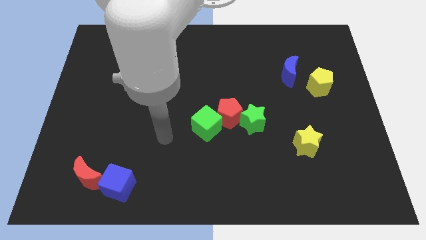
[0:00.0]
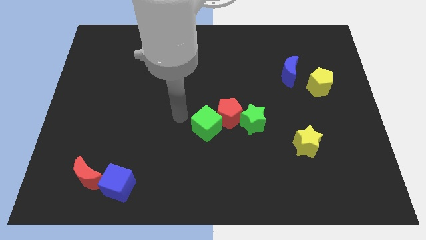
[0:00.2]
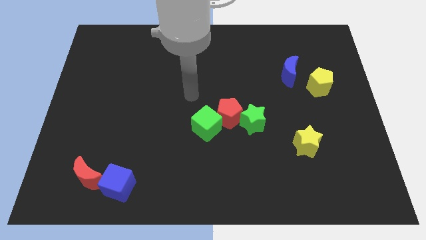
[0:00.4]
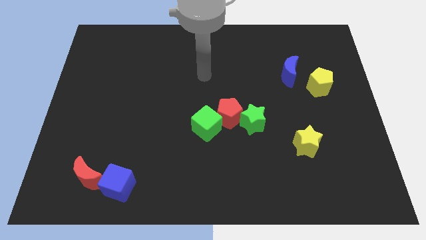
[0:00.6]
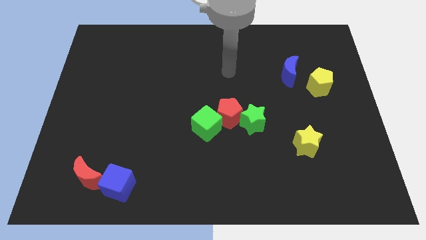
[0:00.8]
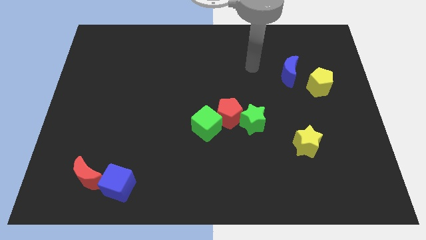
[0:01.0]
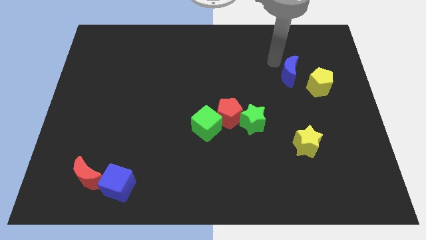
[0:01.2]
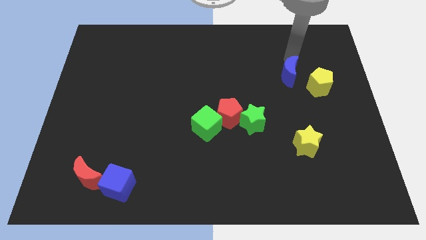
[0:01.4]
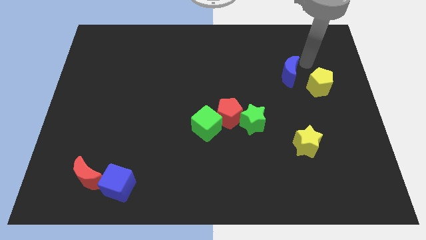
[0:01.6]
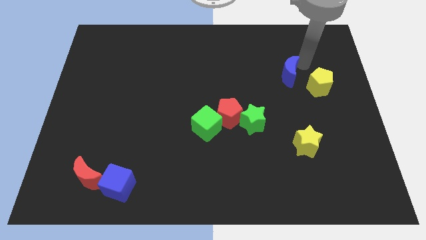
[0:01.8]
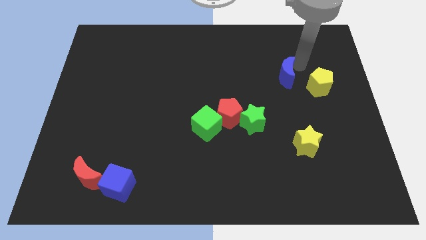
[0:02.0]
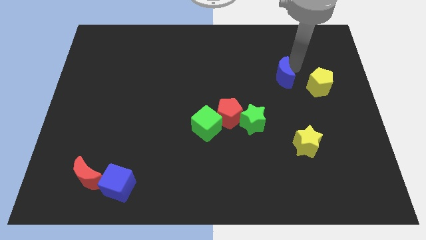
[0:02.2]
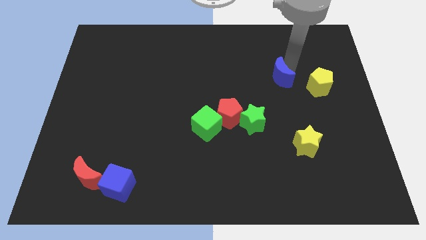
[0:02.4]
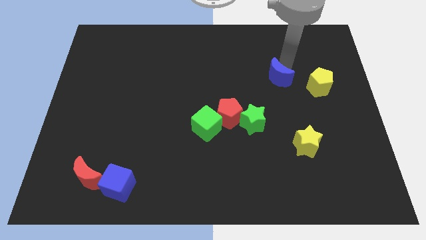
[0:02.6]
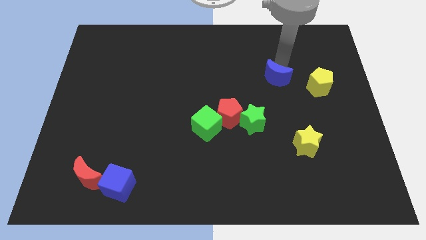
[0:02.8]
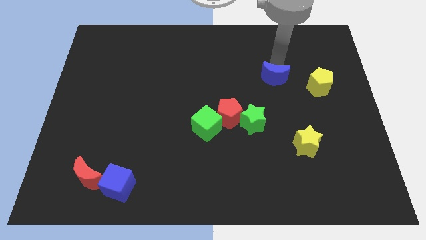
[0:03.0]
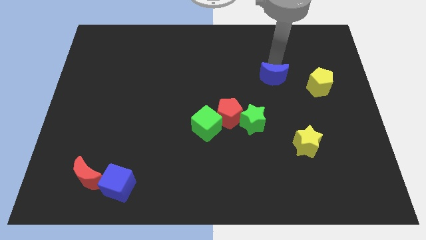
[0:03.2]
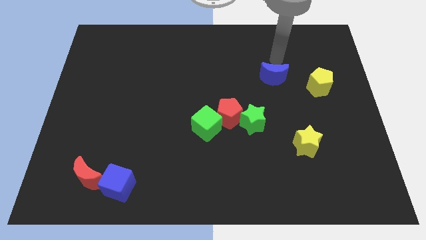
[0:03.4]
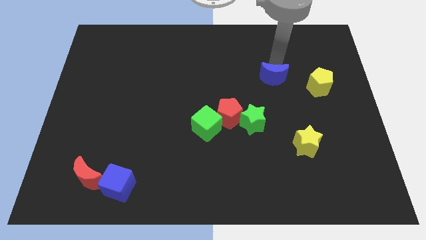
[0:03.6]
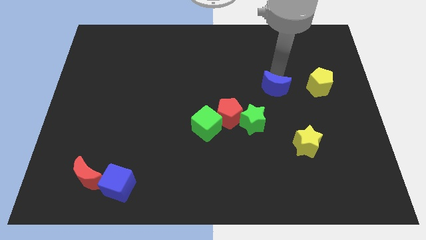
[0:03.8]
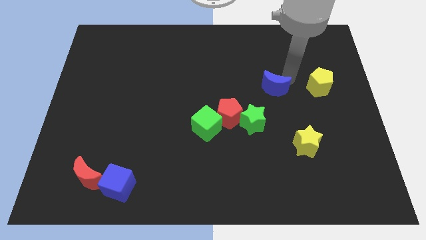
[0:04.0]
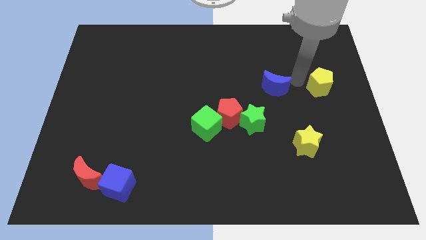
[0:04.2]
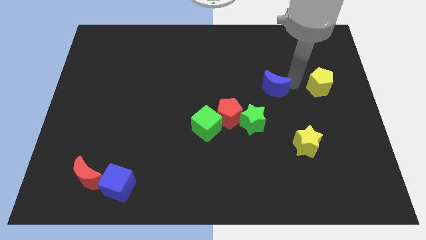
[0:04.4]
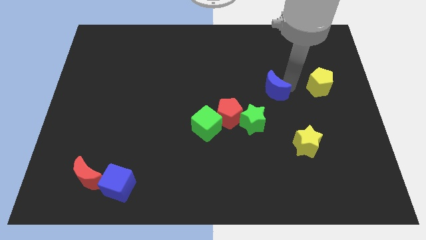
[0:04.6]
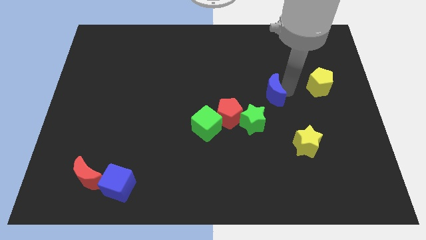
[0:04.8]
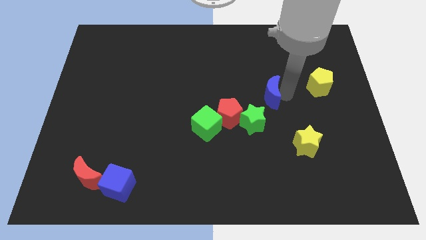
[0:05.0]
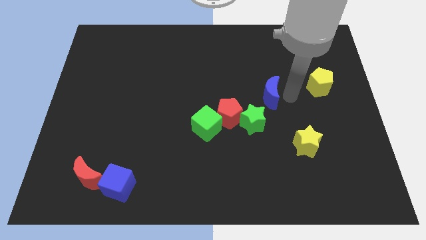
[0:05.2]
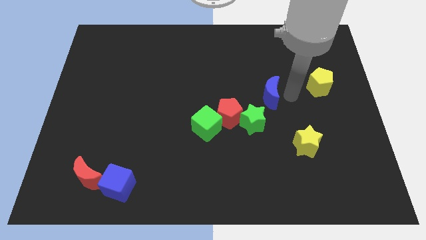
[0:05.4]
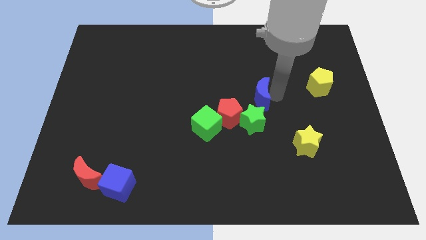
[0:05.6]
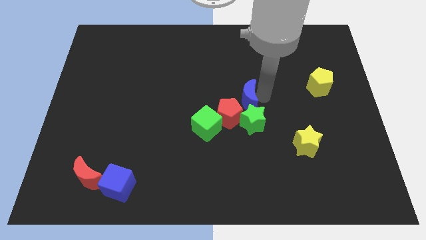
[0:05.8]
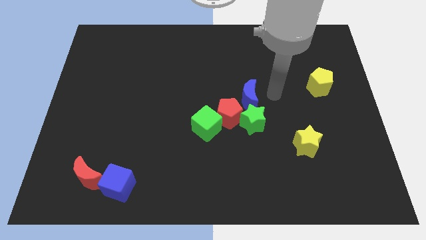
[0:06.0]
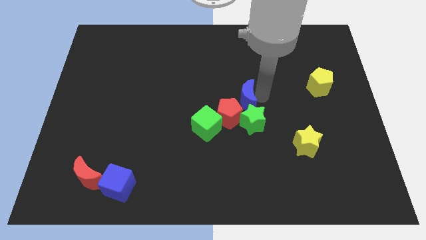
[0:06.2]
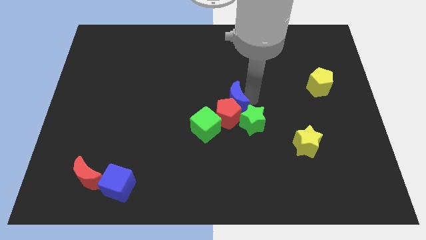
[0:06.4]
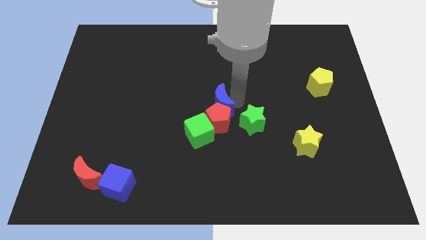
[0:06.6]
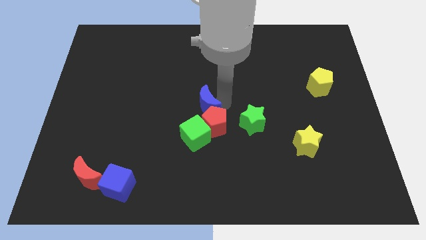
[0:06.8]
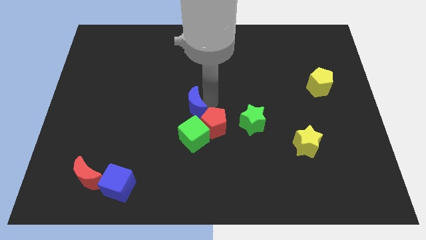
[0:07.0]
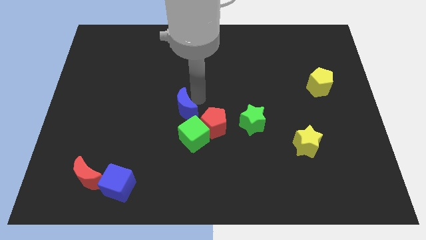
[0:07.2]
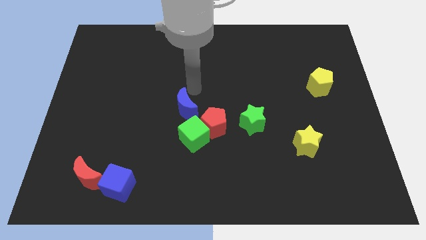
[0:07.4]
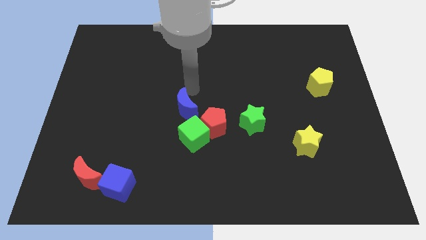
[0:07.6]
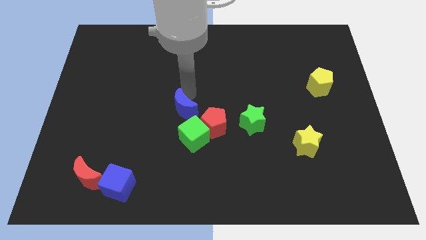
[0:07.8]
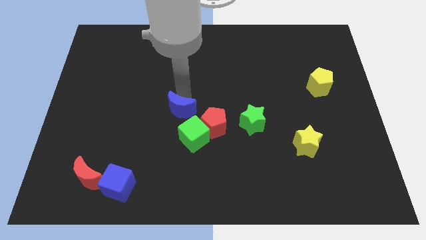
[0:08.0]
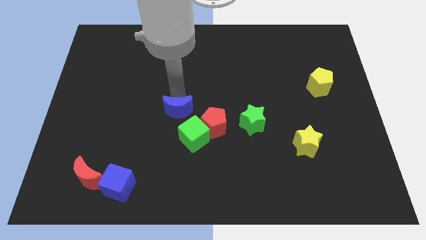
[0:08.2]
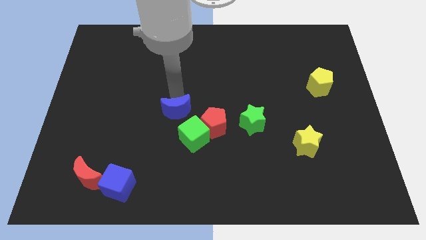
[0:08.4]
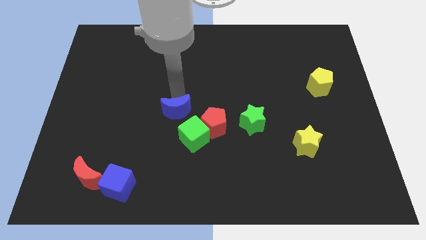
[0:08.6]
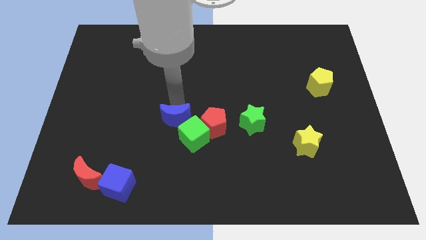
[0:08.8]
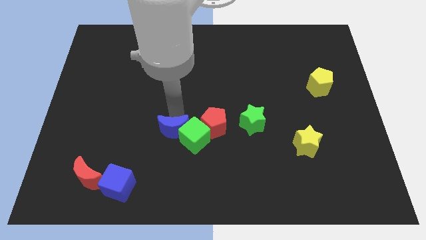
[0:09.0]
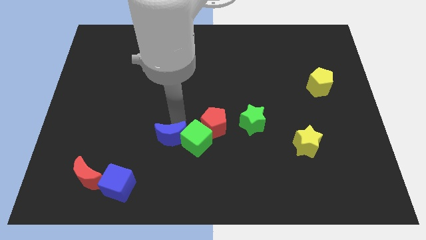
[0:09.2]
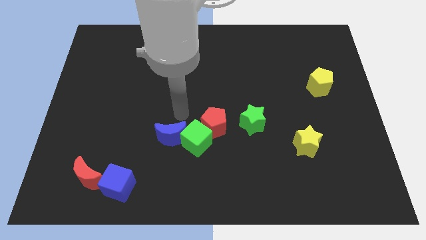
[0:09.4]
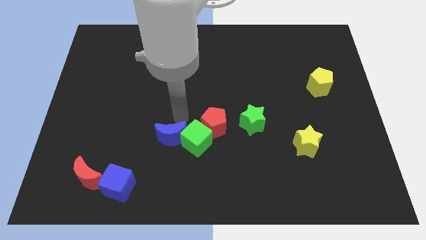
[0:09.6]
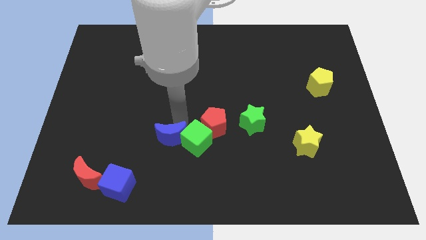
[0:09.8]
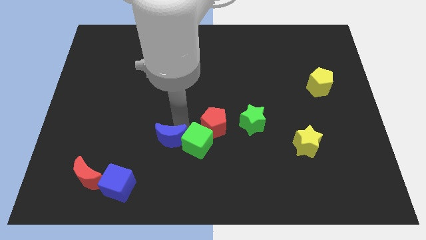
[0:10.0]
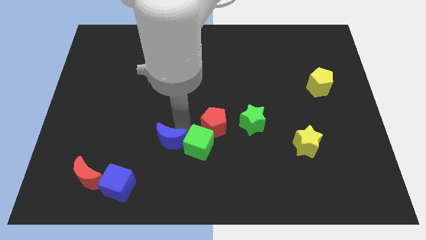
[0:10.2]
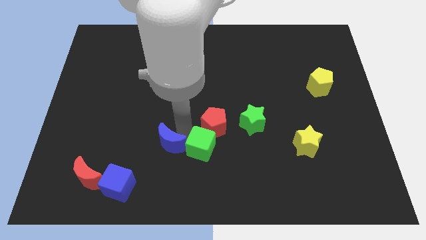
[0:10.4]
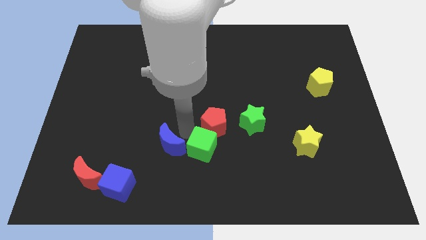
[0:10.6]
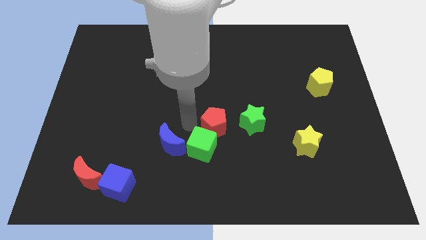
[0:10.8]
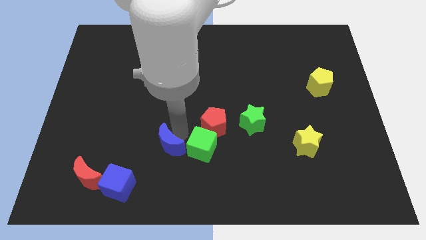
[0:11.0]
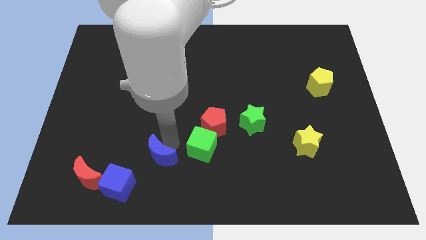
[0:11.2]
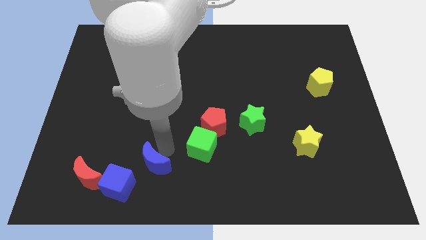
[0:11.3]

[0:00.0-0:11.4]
slide the blue moon to the right side of the red moon
